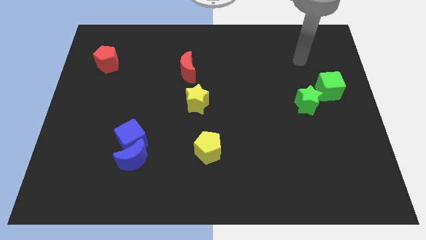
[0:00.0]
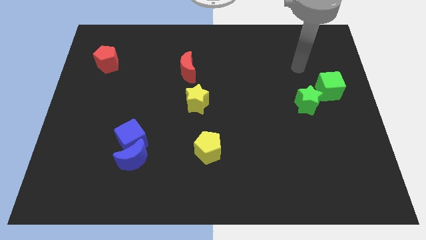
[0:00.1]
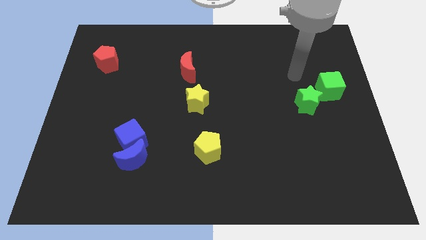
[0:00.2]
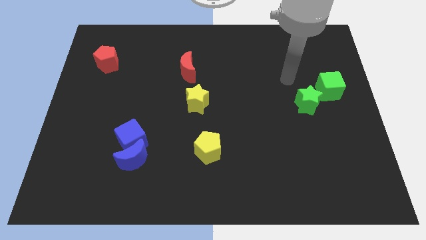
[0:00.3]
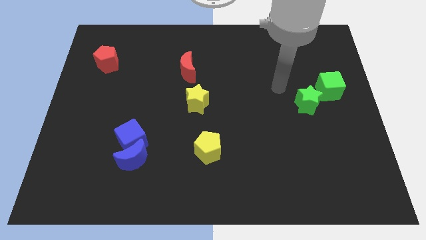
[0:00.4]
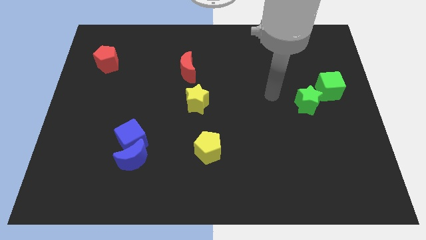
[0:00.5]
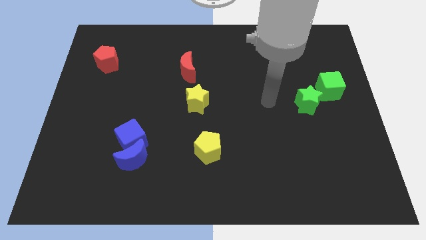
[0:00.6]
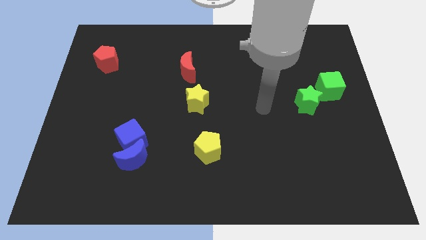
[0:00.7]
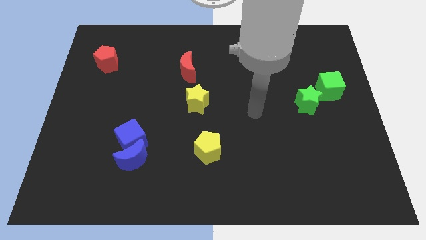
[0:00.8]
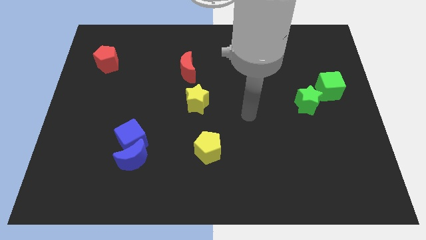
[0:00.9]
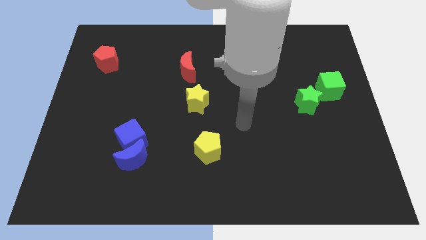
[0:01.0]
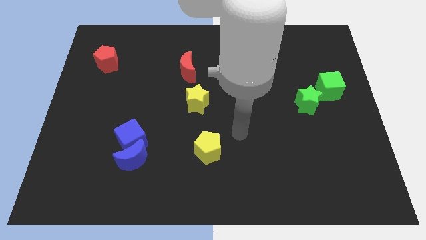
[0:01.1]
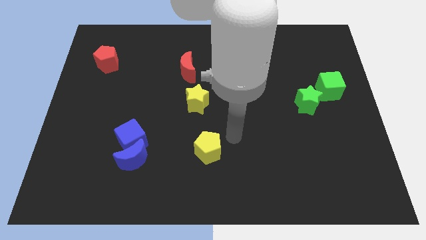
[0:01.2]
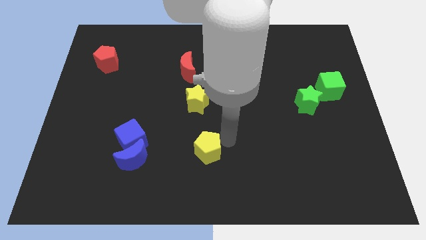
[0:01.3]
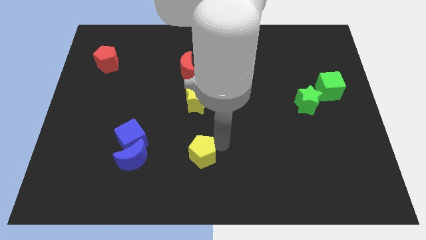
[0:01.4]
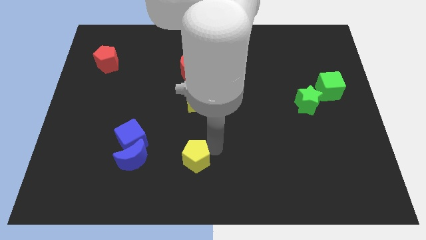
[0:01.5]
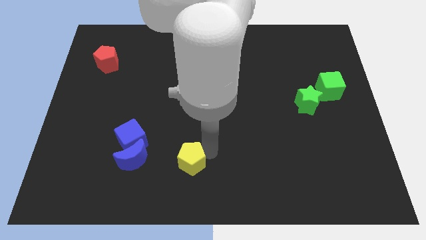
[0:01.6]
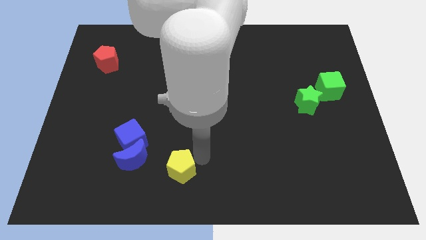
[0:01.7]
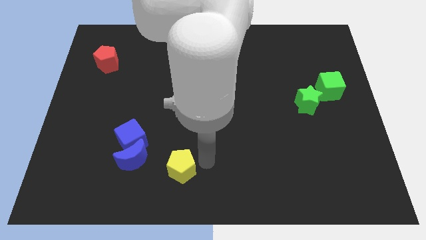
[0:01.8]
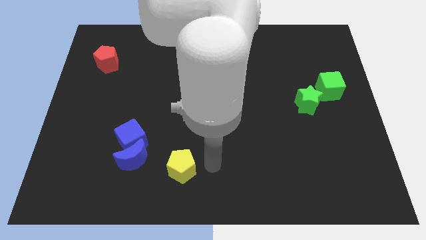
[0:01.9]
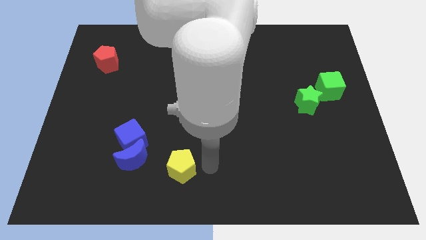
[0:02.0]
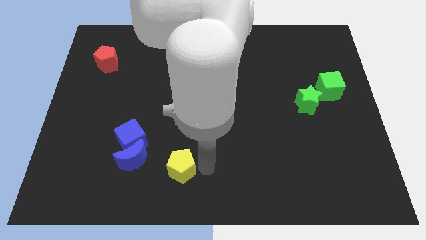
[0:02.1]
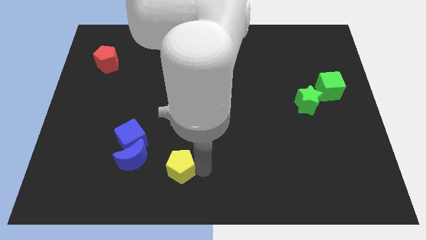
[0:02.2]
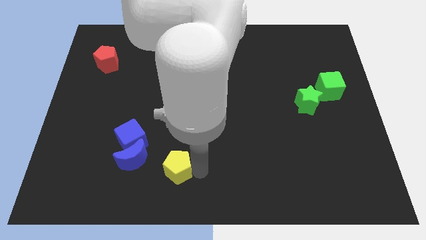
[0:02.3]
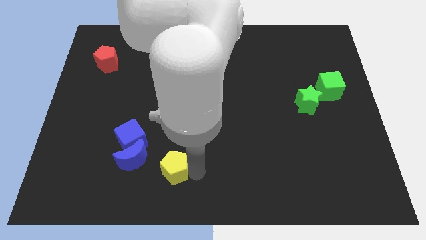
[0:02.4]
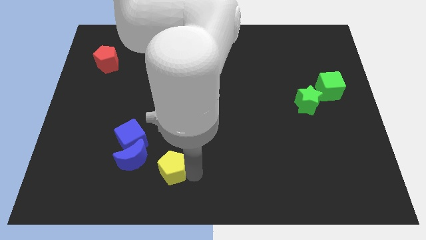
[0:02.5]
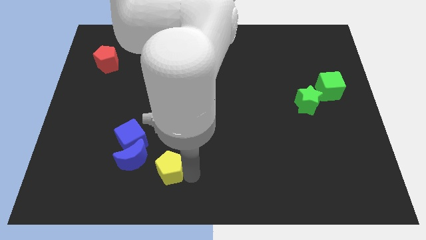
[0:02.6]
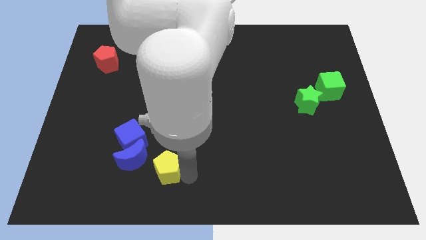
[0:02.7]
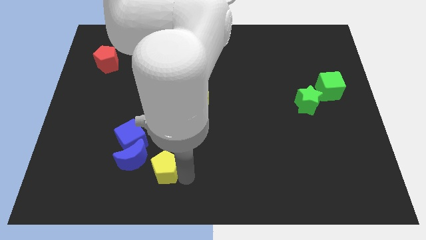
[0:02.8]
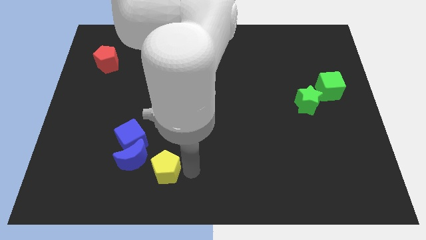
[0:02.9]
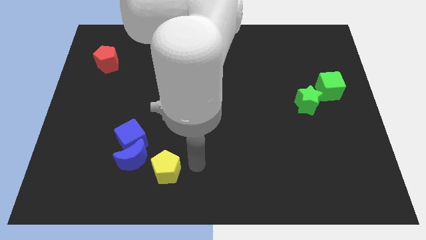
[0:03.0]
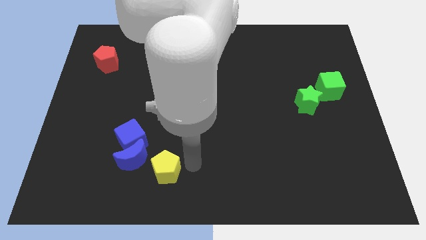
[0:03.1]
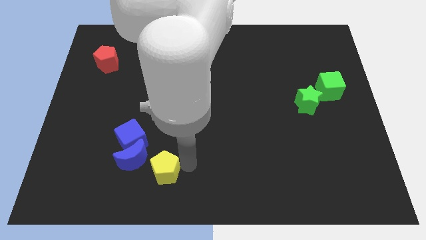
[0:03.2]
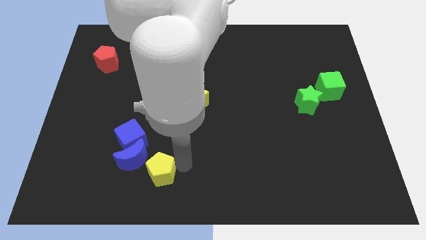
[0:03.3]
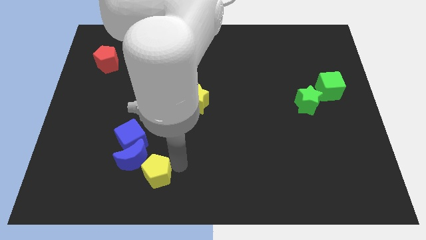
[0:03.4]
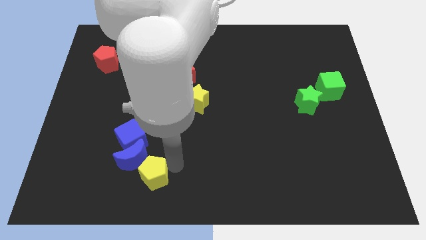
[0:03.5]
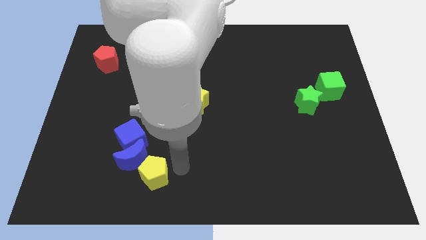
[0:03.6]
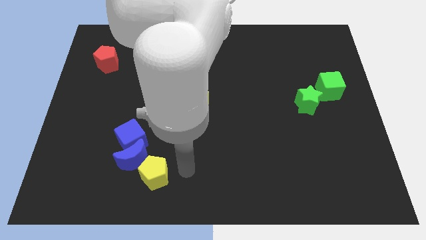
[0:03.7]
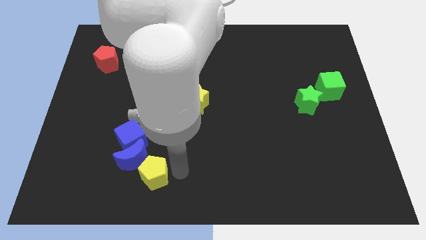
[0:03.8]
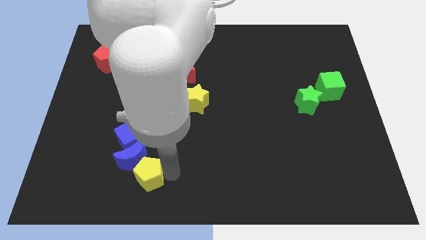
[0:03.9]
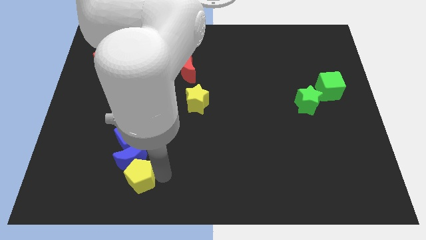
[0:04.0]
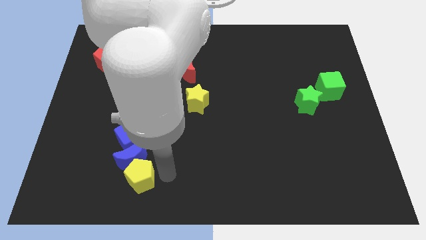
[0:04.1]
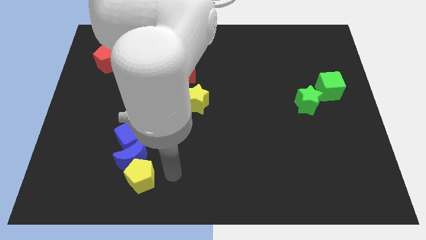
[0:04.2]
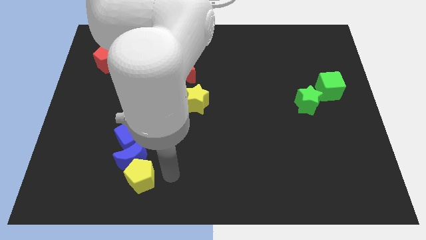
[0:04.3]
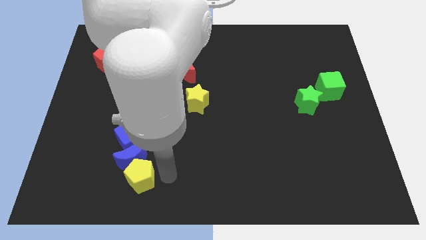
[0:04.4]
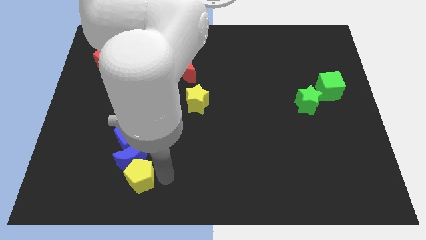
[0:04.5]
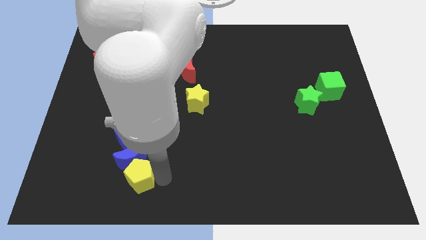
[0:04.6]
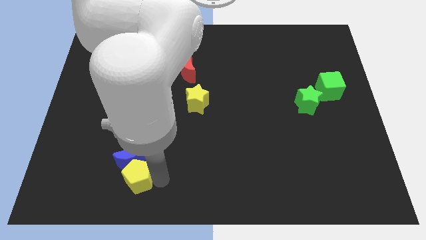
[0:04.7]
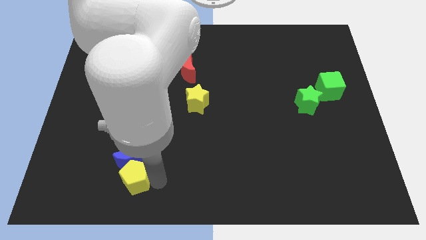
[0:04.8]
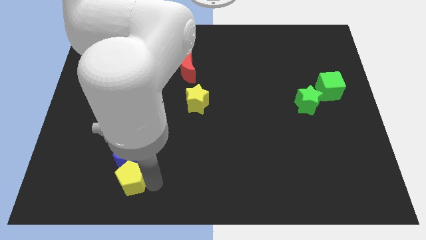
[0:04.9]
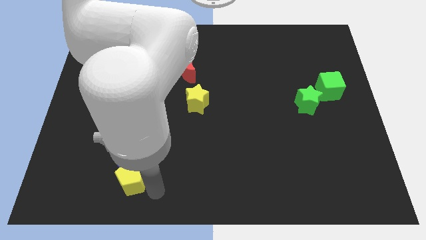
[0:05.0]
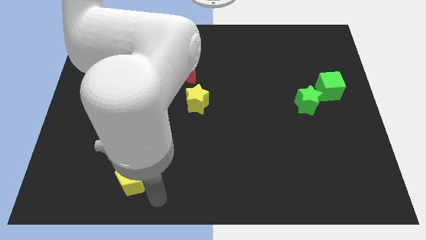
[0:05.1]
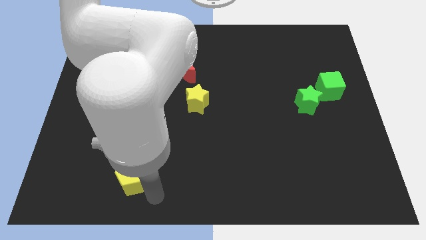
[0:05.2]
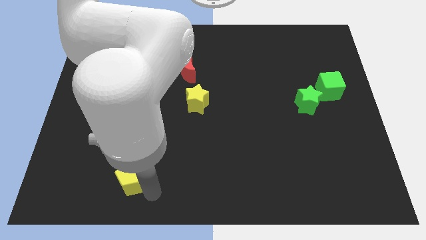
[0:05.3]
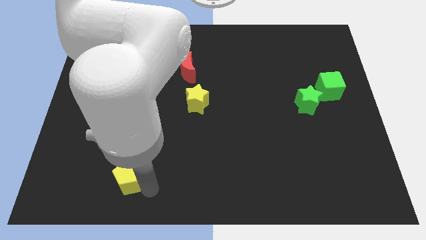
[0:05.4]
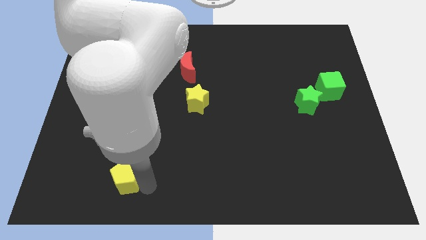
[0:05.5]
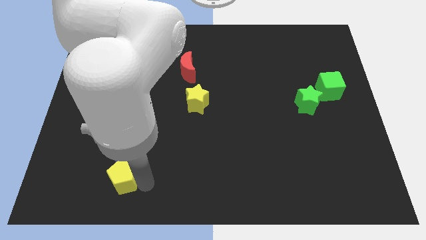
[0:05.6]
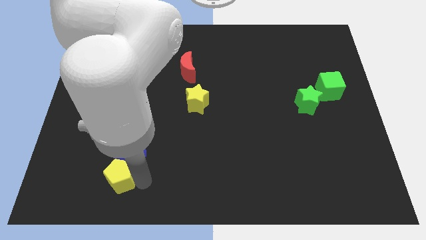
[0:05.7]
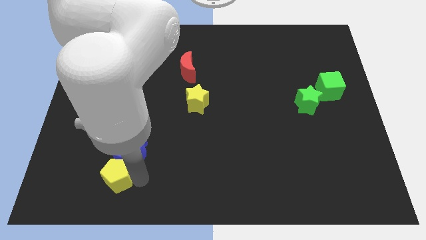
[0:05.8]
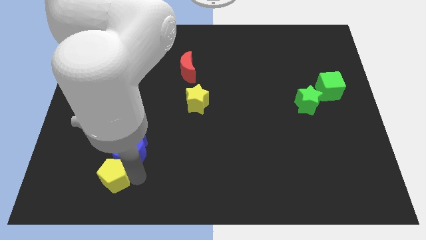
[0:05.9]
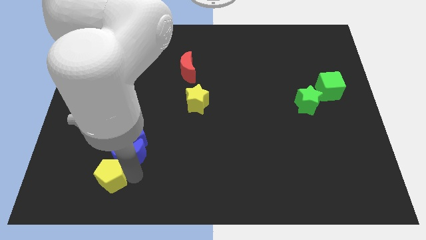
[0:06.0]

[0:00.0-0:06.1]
put the yellow pentagon to the bottom left side of the blue cube

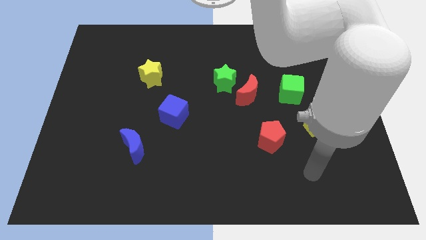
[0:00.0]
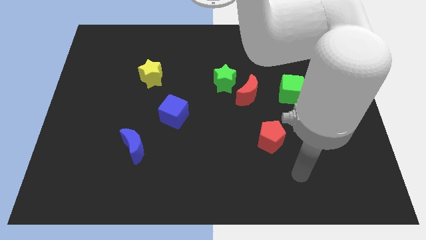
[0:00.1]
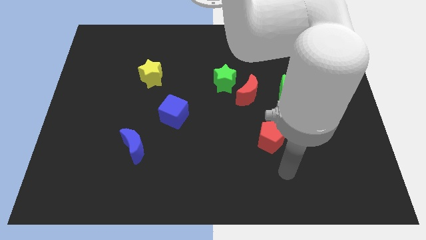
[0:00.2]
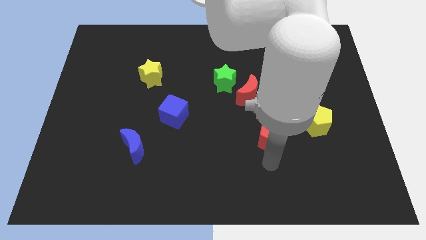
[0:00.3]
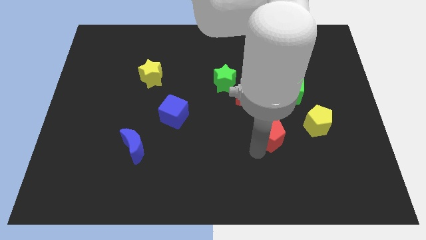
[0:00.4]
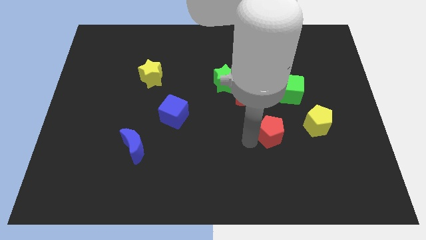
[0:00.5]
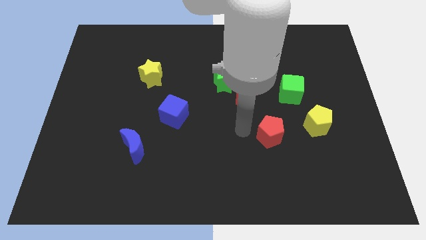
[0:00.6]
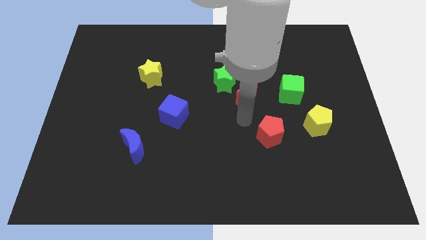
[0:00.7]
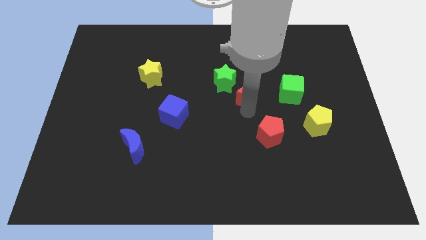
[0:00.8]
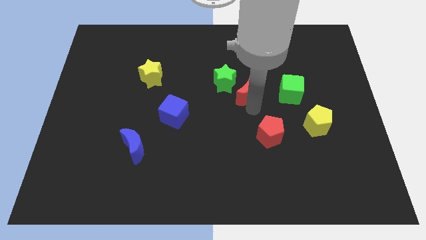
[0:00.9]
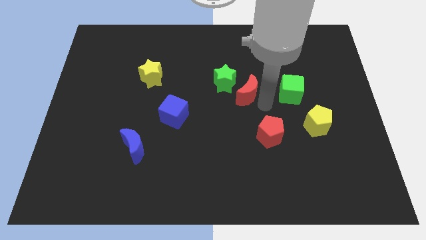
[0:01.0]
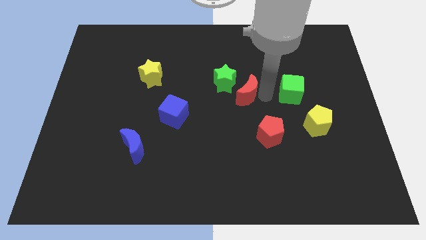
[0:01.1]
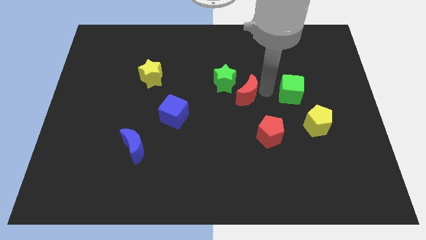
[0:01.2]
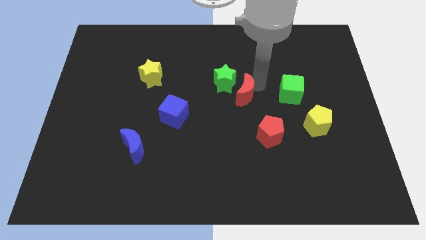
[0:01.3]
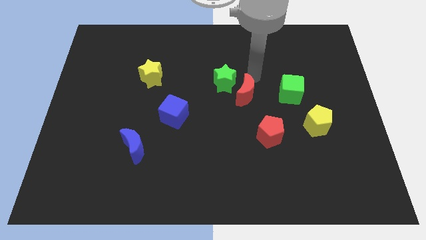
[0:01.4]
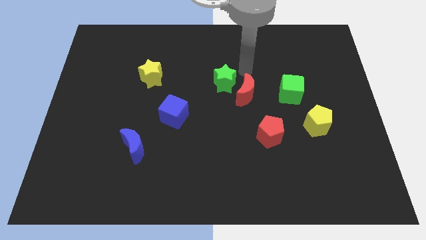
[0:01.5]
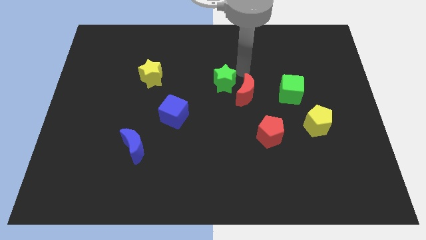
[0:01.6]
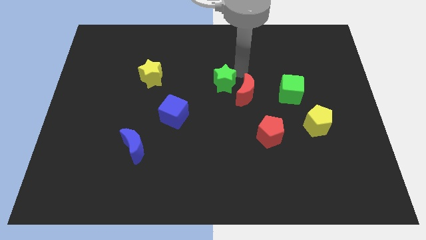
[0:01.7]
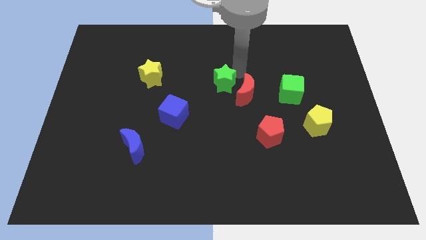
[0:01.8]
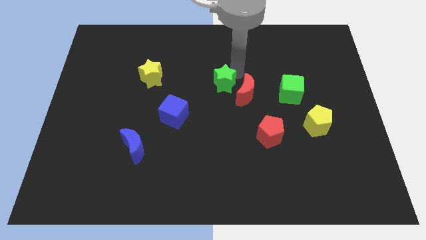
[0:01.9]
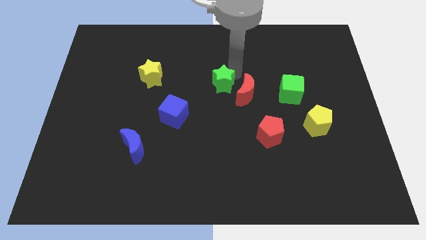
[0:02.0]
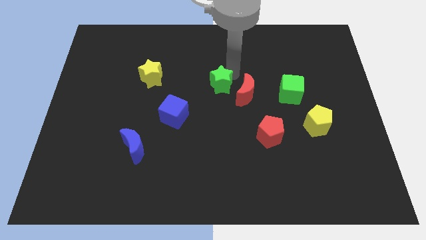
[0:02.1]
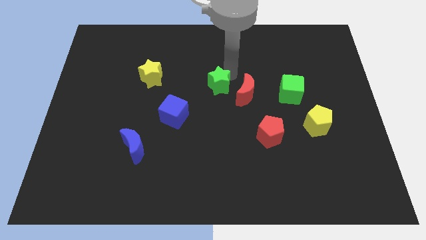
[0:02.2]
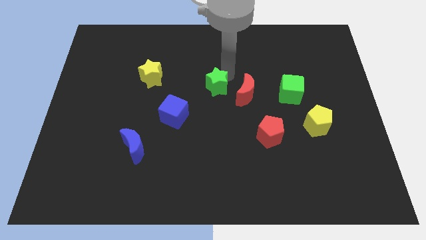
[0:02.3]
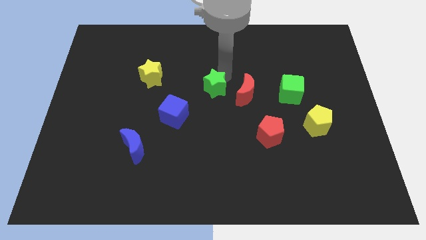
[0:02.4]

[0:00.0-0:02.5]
slide the green star to the top right of the blue cube
